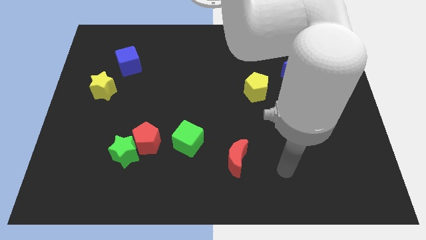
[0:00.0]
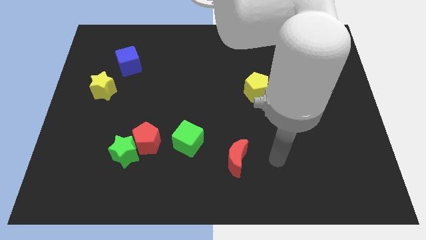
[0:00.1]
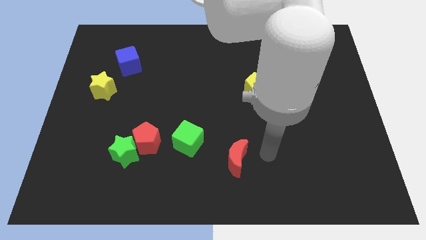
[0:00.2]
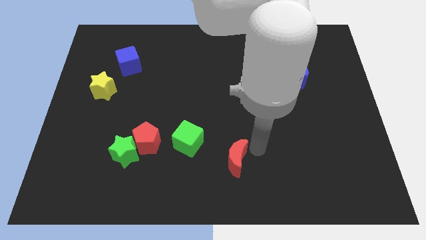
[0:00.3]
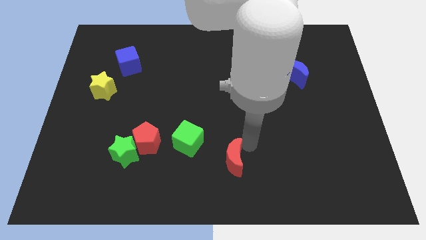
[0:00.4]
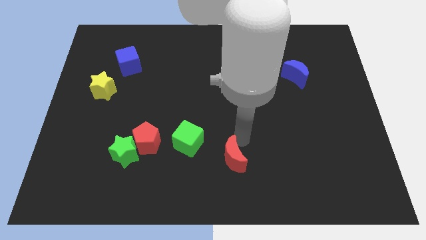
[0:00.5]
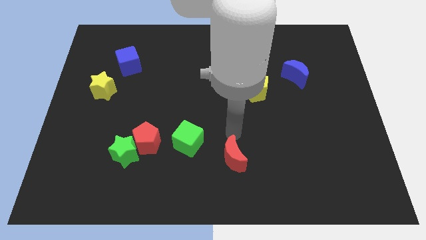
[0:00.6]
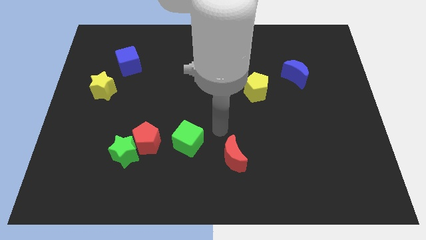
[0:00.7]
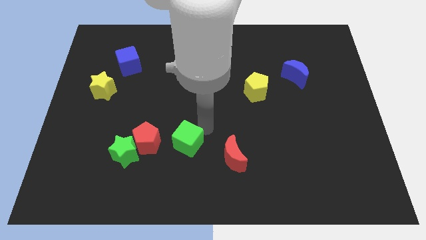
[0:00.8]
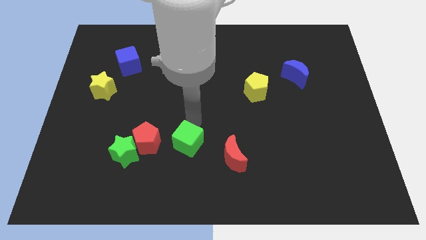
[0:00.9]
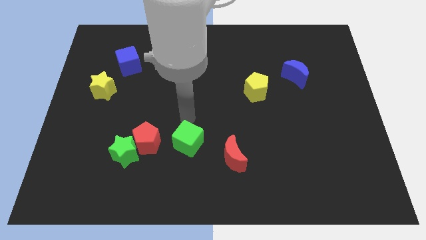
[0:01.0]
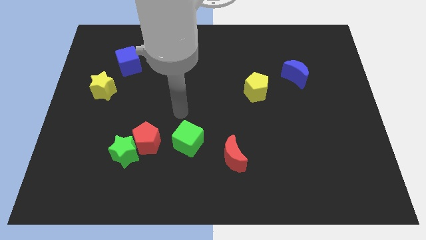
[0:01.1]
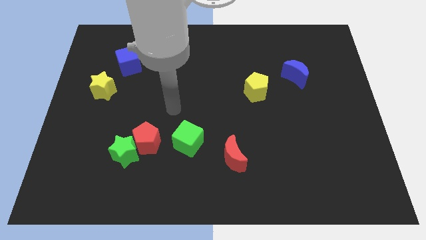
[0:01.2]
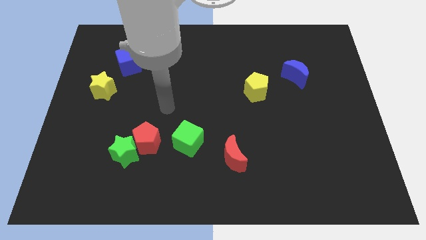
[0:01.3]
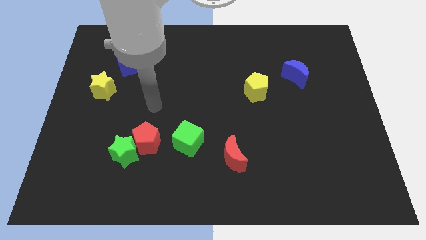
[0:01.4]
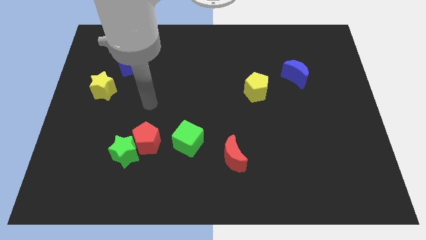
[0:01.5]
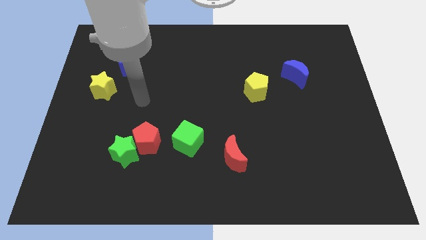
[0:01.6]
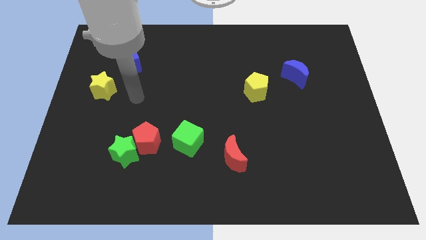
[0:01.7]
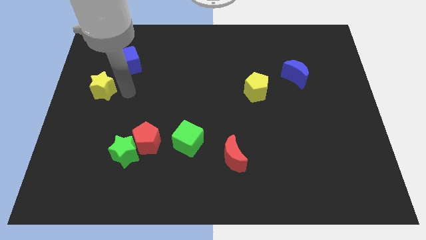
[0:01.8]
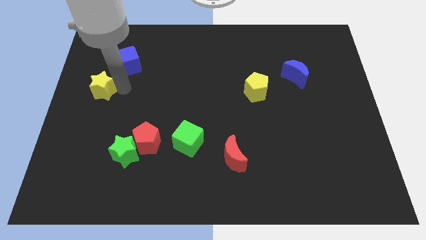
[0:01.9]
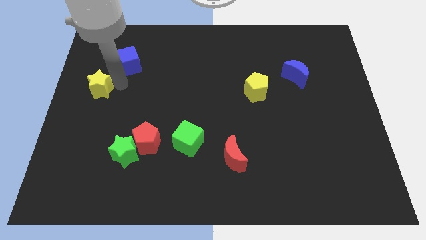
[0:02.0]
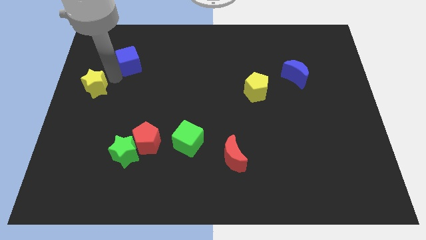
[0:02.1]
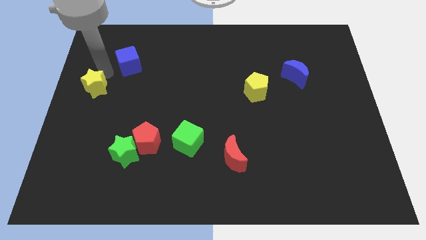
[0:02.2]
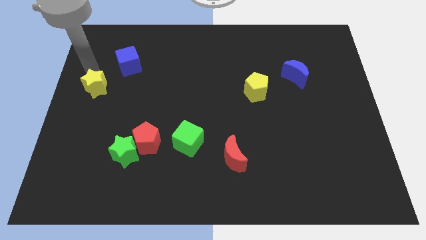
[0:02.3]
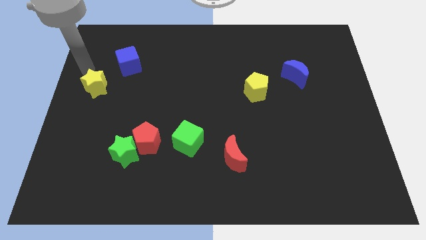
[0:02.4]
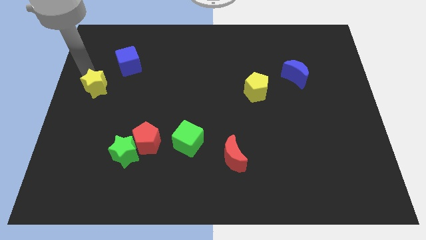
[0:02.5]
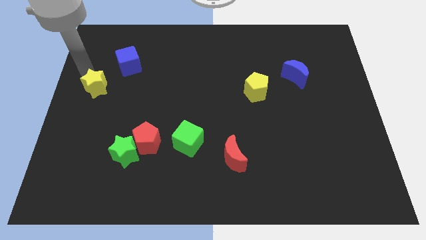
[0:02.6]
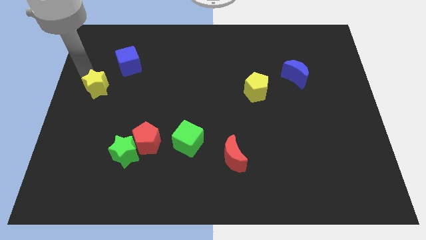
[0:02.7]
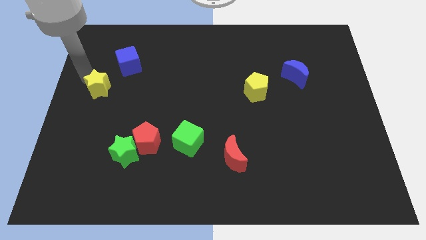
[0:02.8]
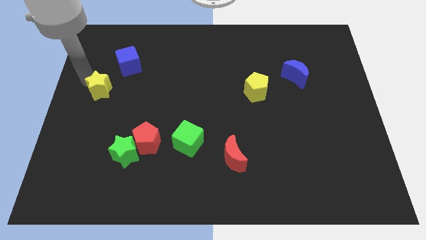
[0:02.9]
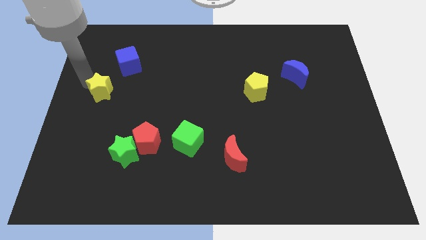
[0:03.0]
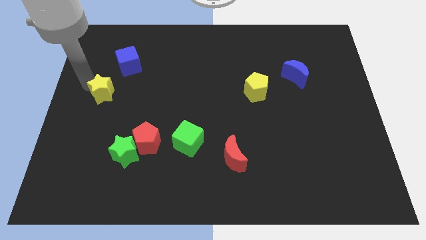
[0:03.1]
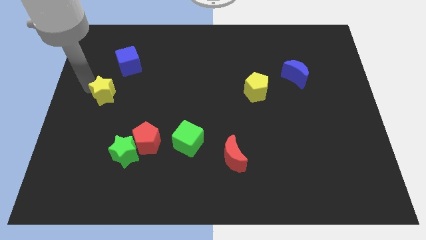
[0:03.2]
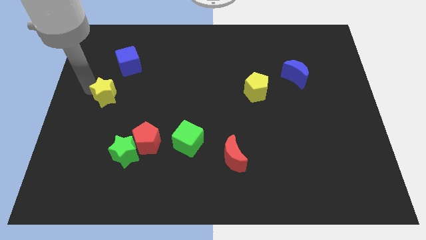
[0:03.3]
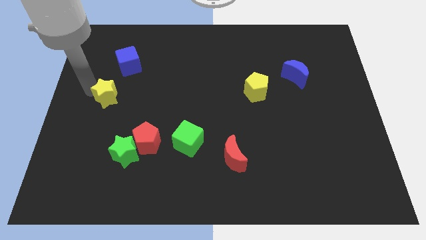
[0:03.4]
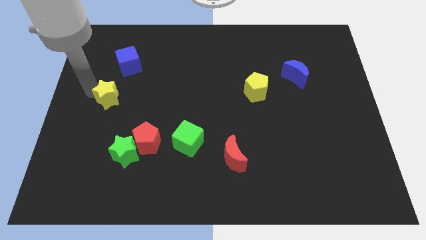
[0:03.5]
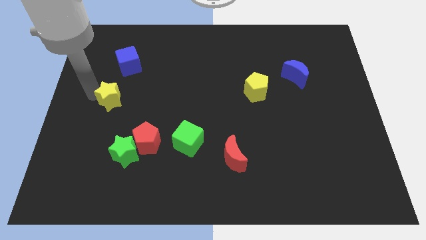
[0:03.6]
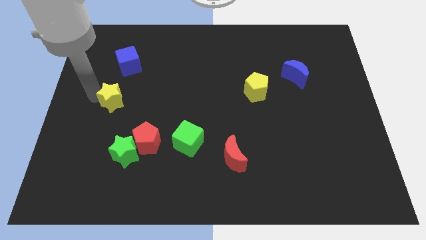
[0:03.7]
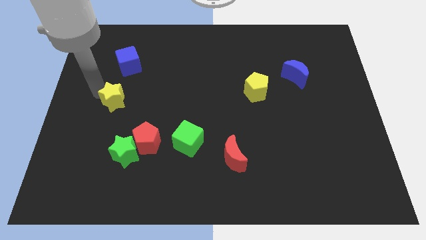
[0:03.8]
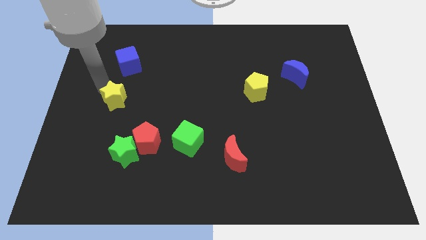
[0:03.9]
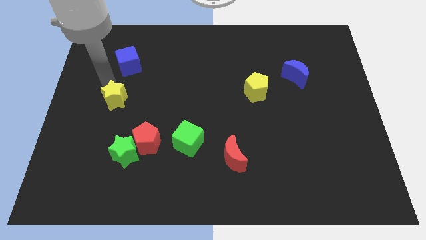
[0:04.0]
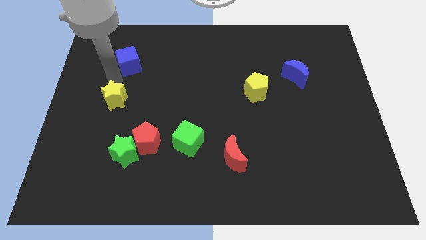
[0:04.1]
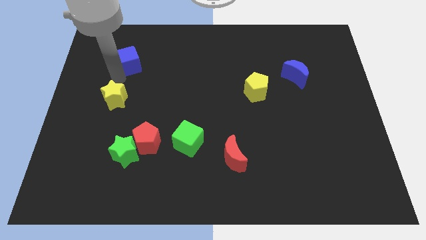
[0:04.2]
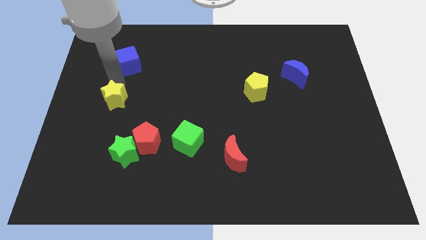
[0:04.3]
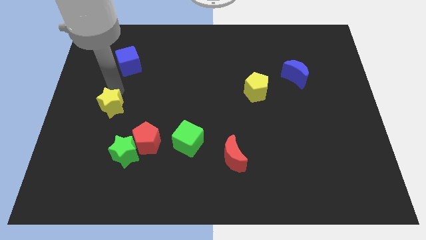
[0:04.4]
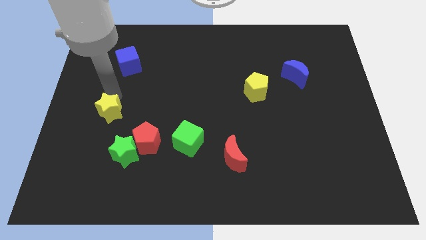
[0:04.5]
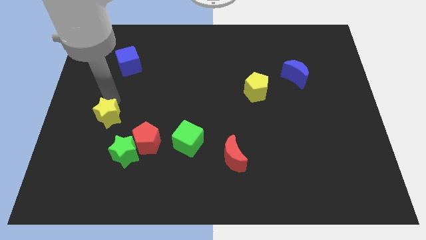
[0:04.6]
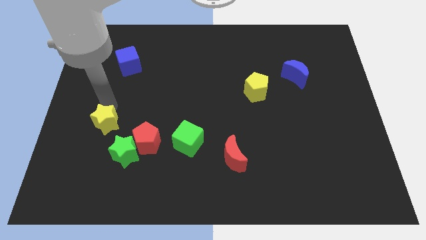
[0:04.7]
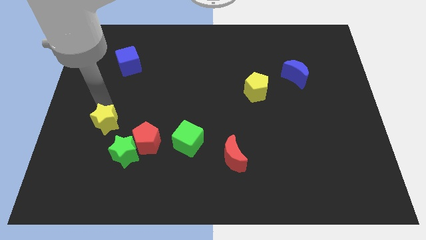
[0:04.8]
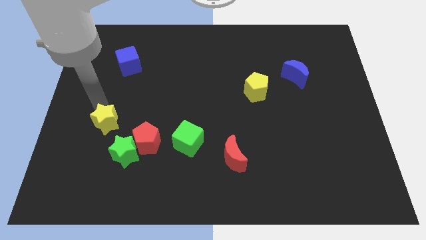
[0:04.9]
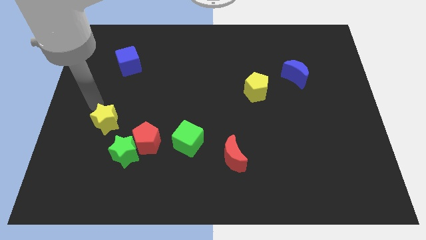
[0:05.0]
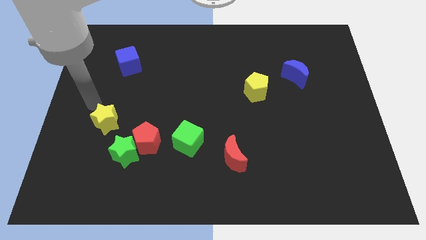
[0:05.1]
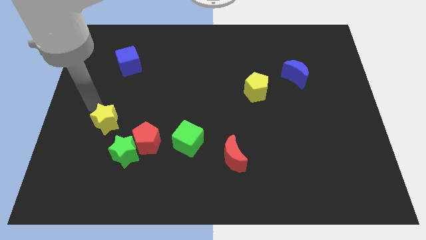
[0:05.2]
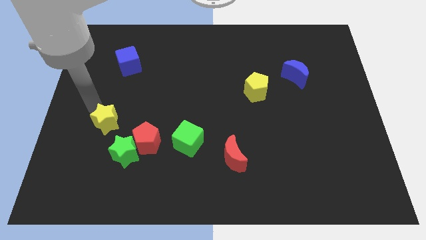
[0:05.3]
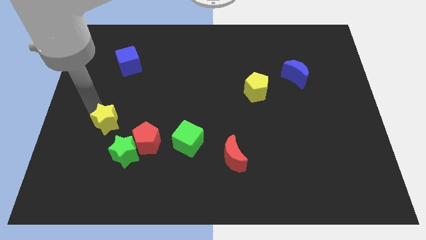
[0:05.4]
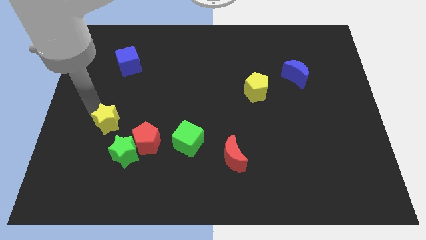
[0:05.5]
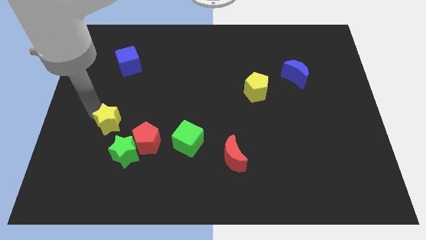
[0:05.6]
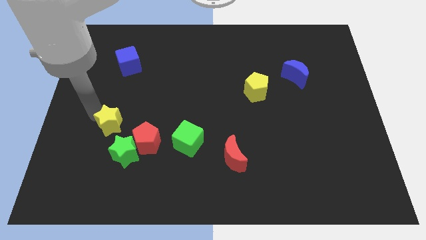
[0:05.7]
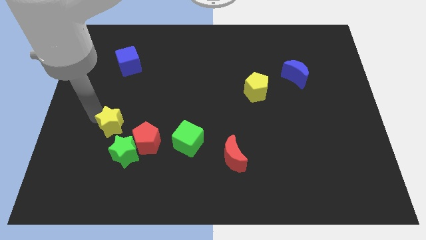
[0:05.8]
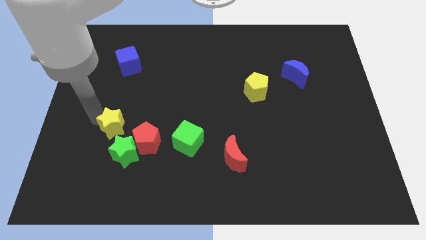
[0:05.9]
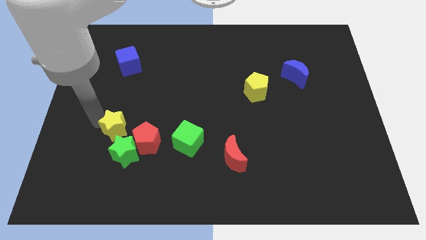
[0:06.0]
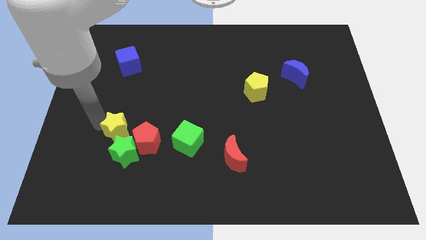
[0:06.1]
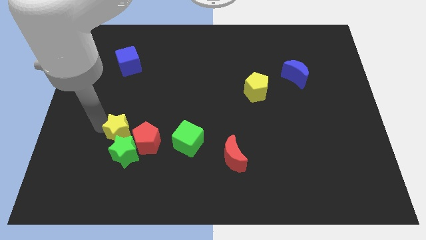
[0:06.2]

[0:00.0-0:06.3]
move the yellow star next to the green star

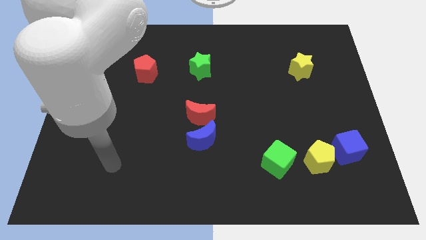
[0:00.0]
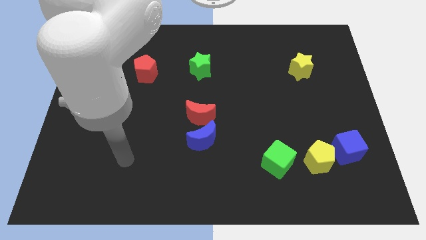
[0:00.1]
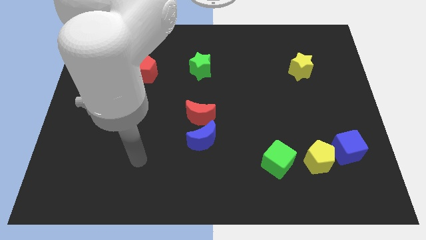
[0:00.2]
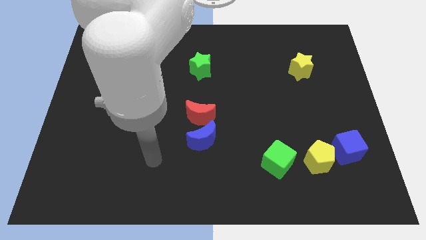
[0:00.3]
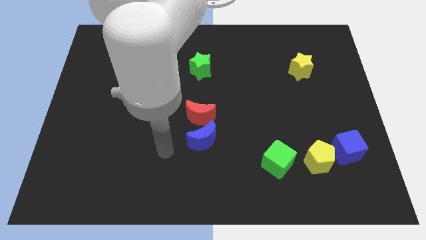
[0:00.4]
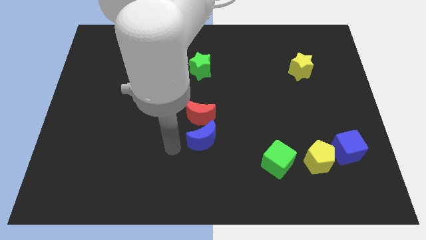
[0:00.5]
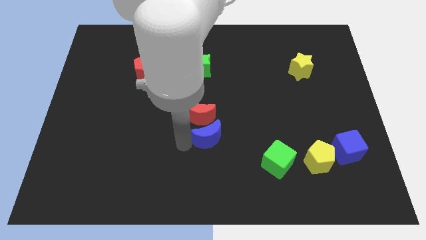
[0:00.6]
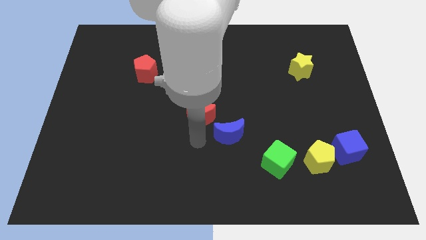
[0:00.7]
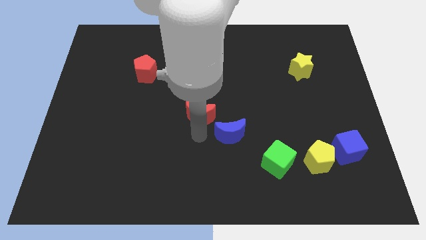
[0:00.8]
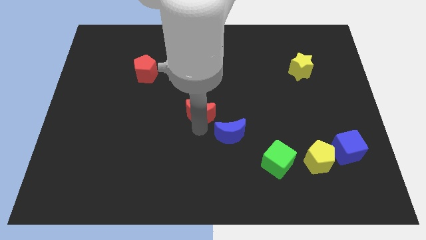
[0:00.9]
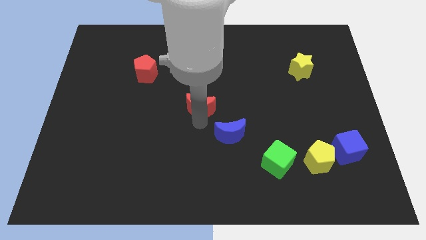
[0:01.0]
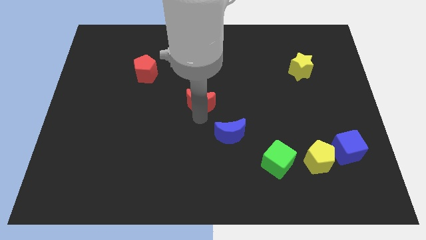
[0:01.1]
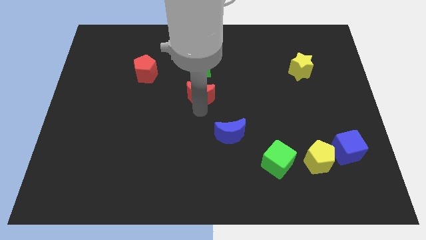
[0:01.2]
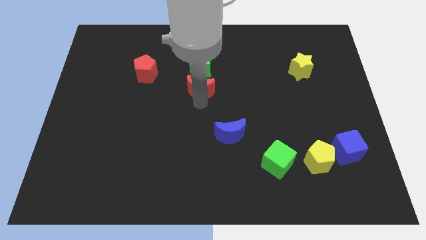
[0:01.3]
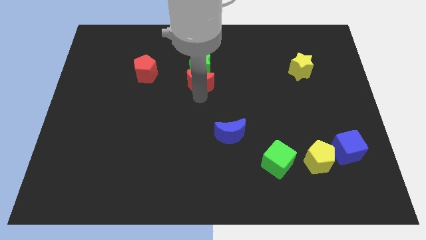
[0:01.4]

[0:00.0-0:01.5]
push the red moon close to the green star

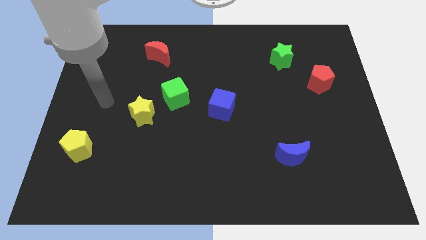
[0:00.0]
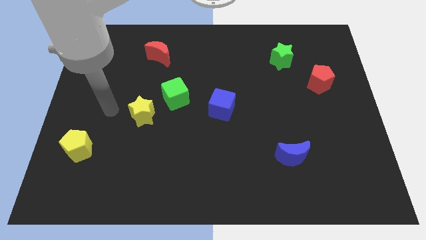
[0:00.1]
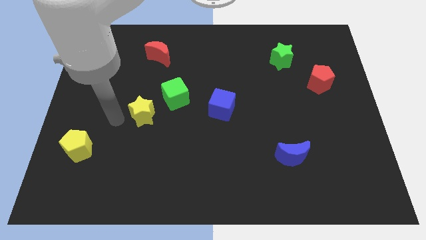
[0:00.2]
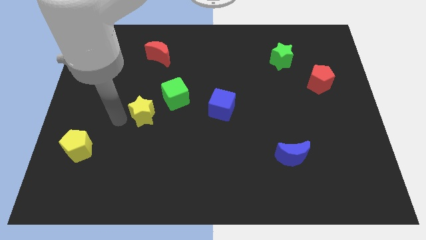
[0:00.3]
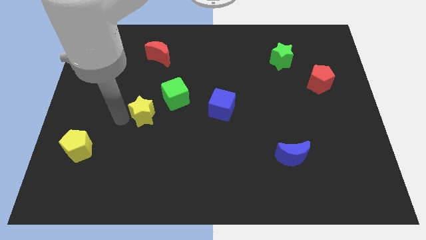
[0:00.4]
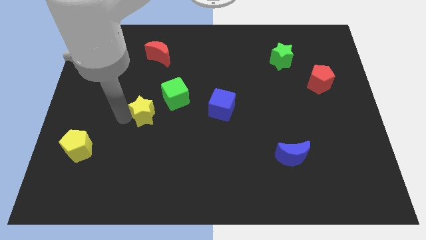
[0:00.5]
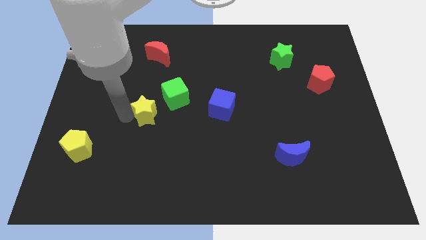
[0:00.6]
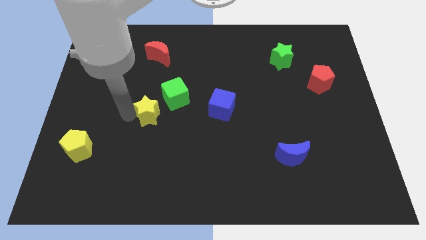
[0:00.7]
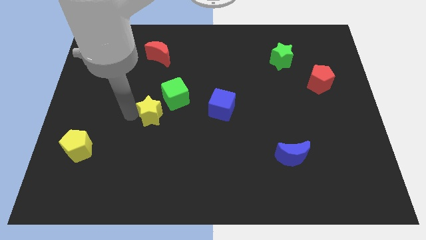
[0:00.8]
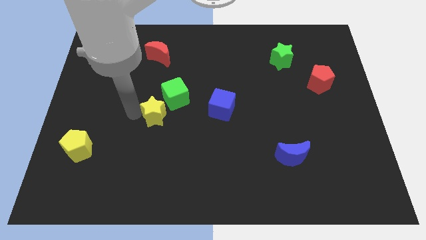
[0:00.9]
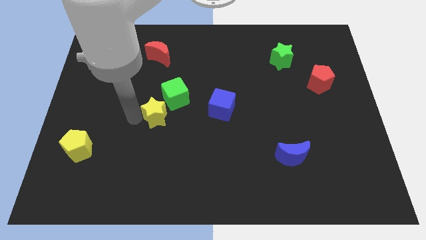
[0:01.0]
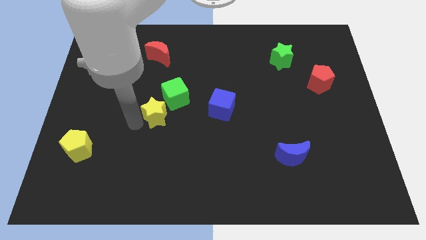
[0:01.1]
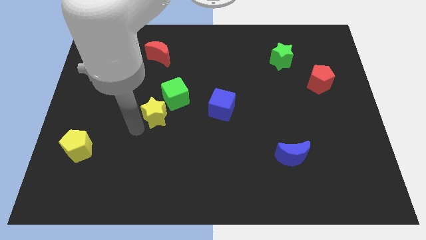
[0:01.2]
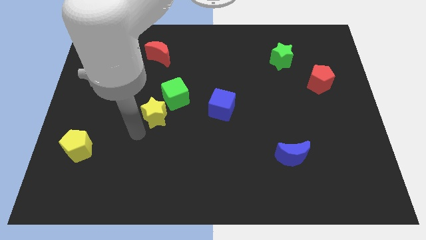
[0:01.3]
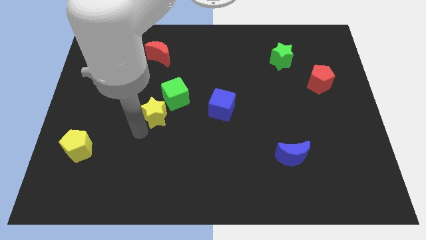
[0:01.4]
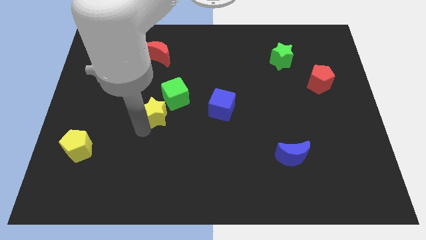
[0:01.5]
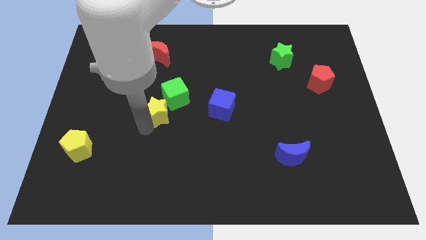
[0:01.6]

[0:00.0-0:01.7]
put the yellow star to the green cube
